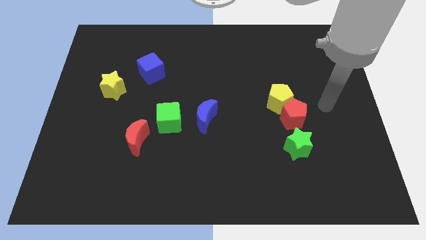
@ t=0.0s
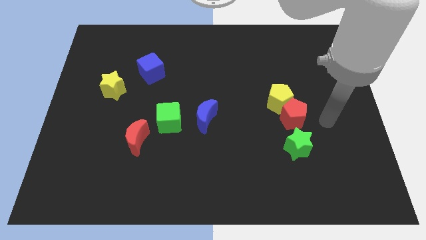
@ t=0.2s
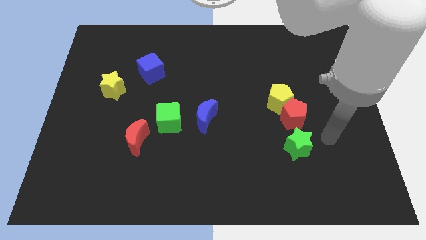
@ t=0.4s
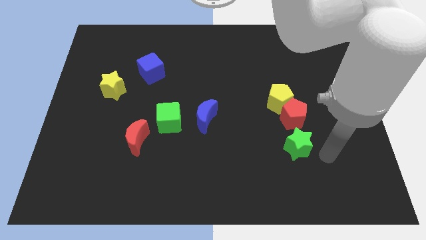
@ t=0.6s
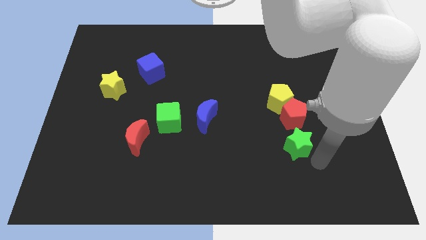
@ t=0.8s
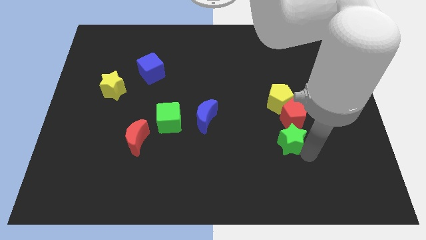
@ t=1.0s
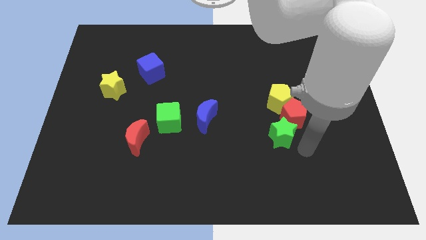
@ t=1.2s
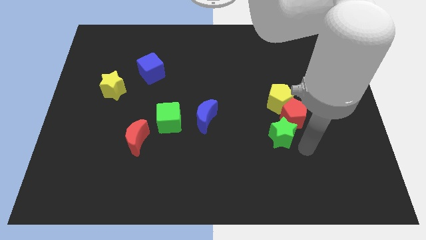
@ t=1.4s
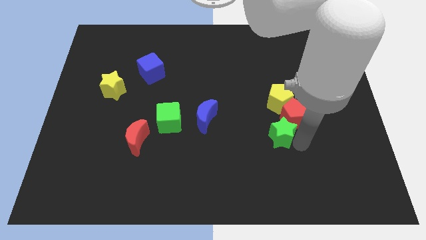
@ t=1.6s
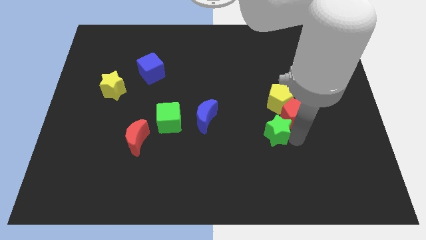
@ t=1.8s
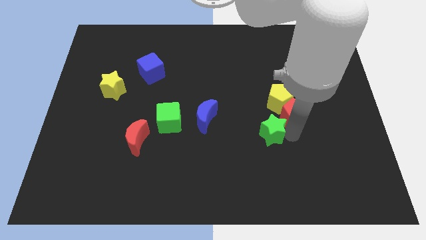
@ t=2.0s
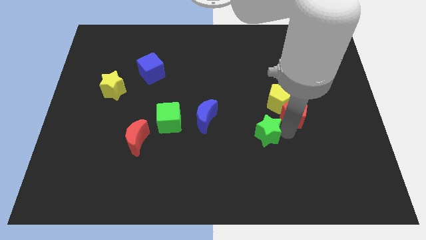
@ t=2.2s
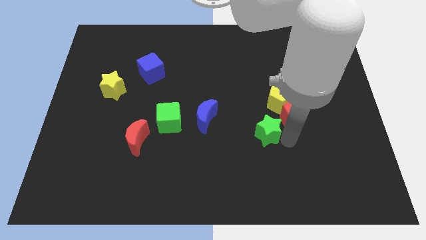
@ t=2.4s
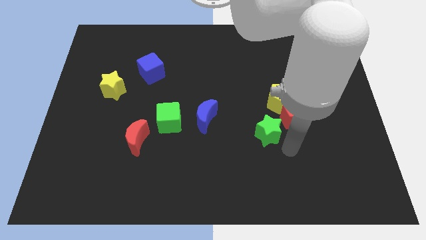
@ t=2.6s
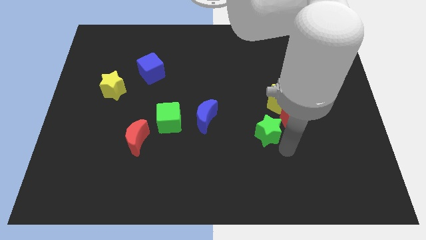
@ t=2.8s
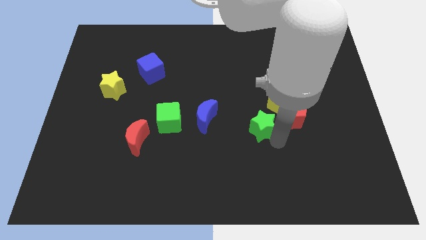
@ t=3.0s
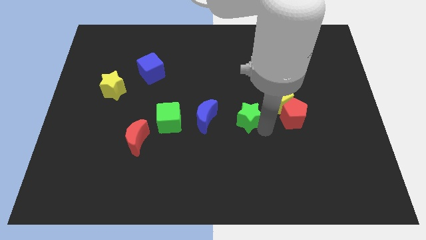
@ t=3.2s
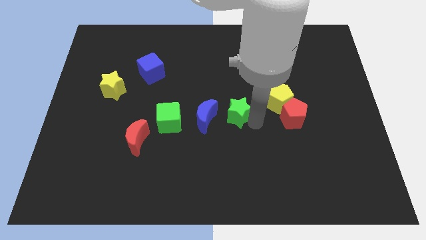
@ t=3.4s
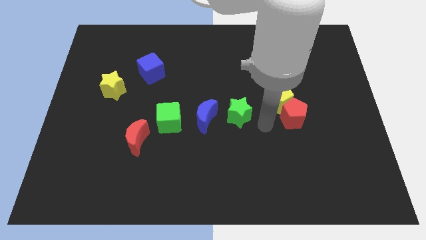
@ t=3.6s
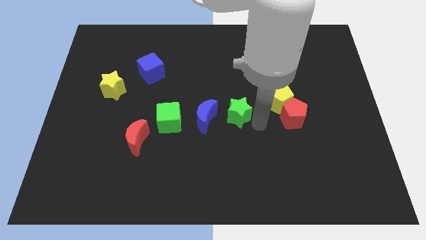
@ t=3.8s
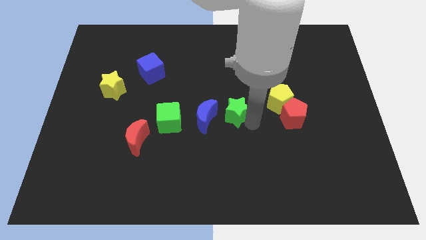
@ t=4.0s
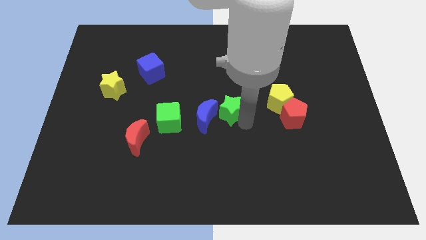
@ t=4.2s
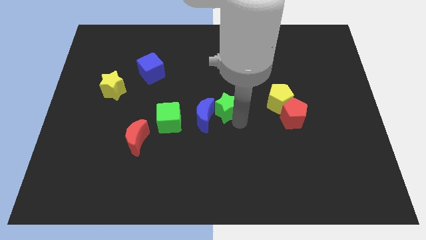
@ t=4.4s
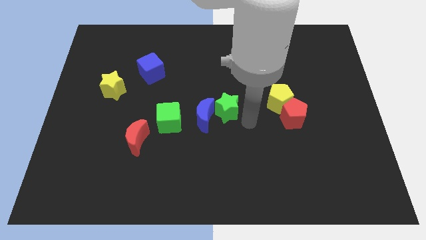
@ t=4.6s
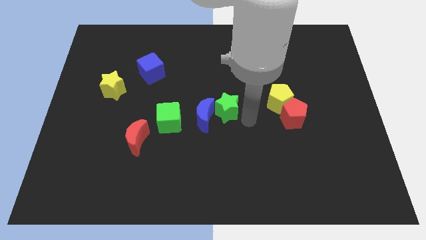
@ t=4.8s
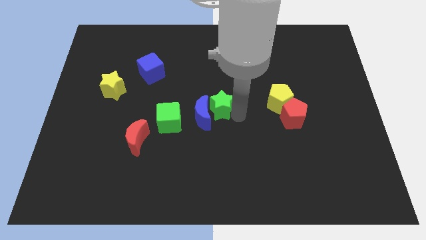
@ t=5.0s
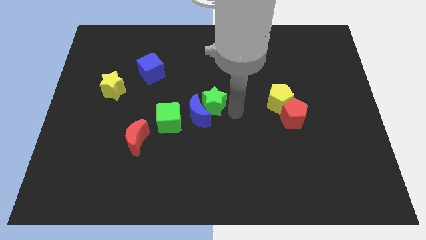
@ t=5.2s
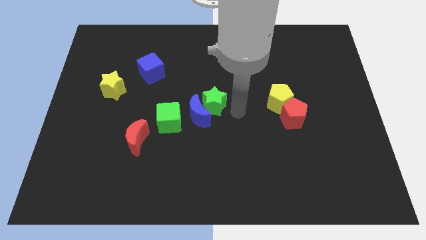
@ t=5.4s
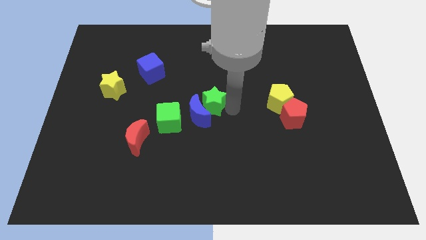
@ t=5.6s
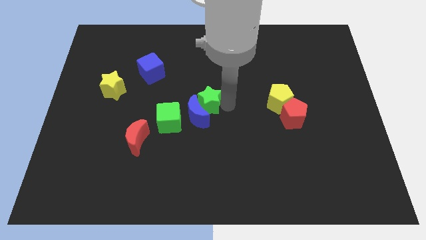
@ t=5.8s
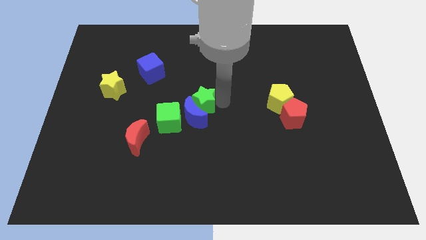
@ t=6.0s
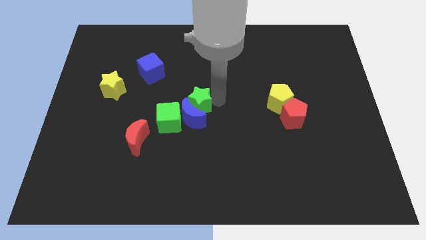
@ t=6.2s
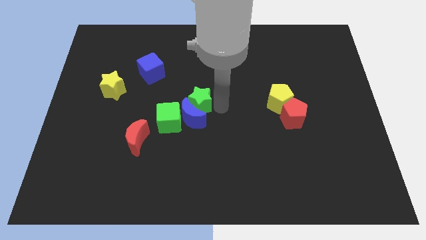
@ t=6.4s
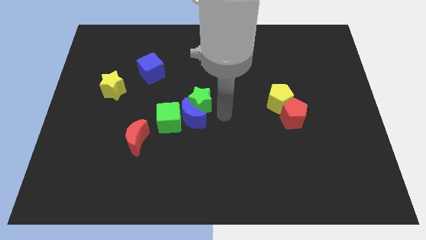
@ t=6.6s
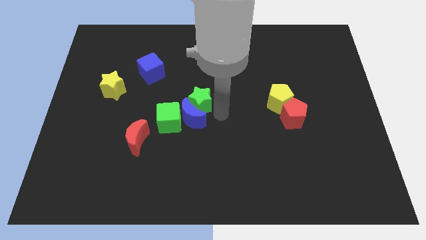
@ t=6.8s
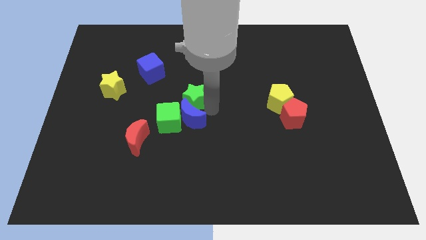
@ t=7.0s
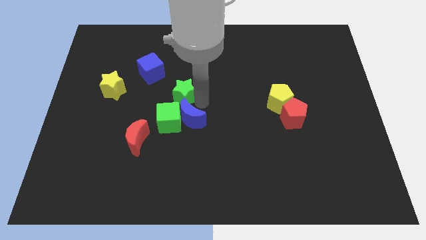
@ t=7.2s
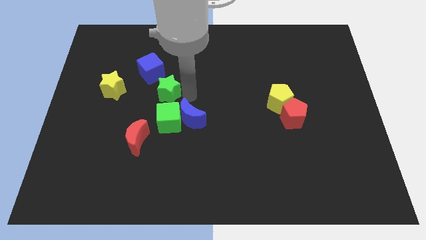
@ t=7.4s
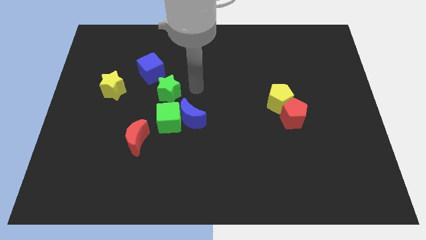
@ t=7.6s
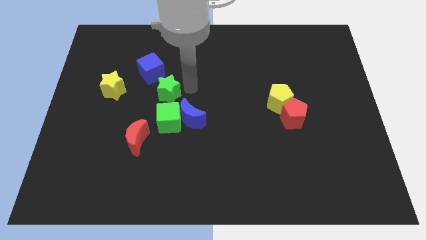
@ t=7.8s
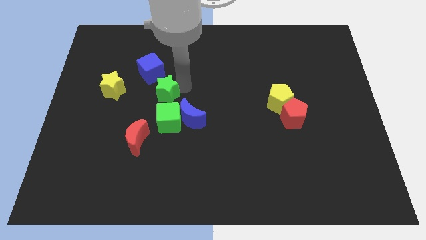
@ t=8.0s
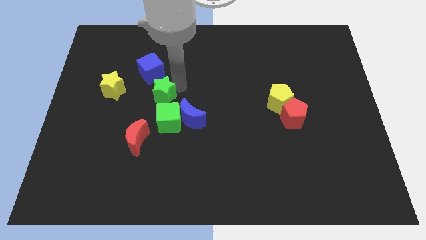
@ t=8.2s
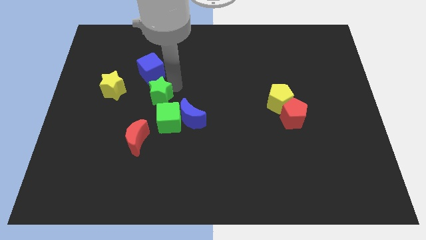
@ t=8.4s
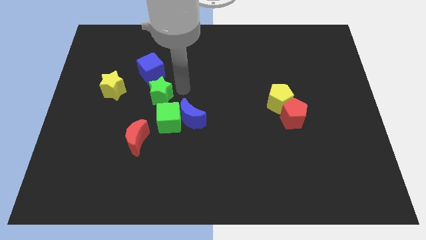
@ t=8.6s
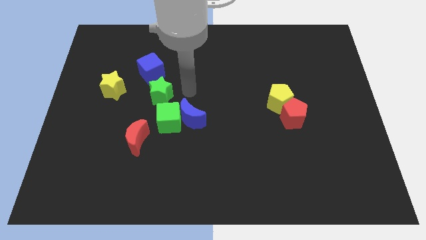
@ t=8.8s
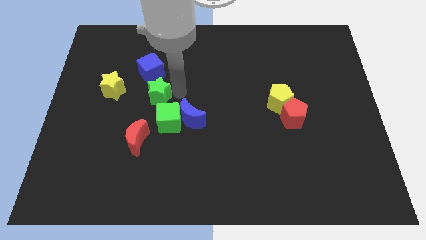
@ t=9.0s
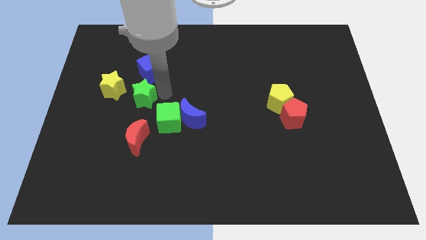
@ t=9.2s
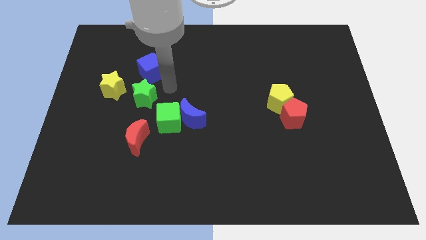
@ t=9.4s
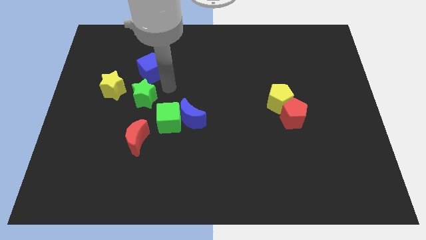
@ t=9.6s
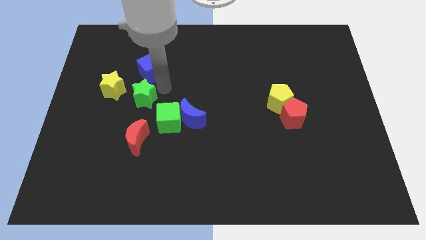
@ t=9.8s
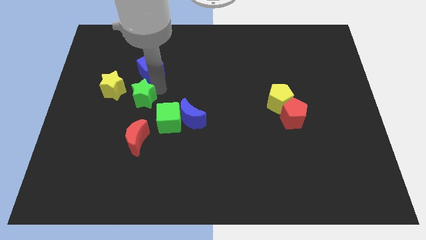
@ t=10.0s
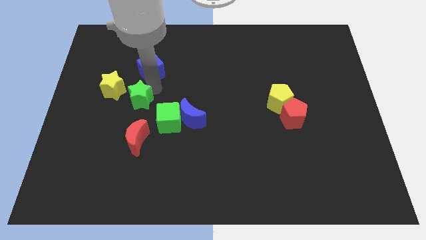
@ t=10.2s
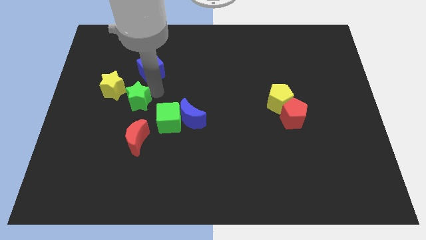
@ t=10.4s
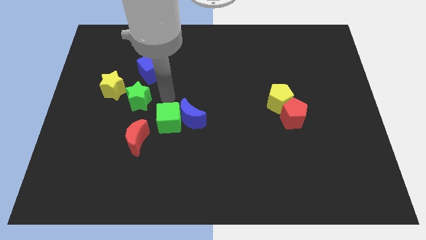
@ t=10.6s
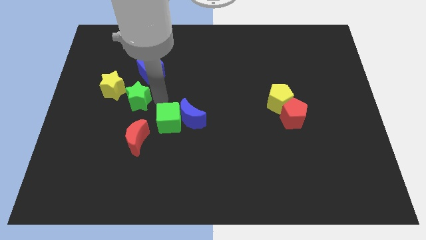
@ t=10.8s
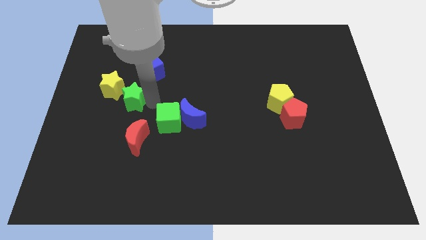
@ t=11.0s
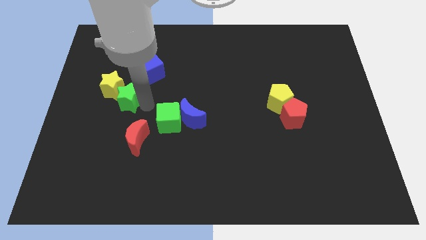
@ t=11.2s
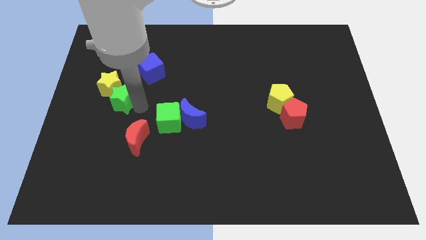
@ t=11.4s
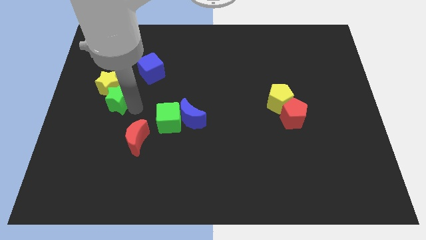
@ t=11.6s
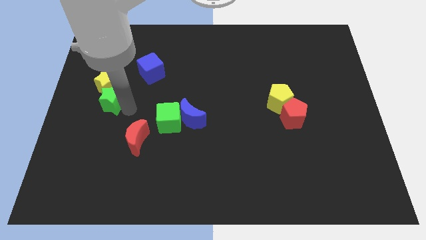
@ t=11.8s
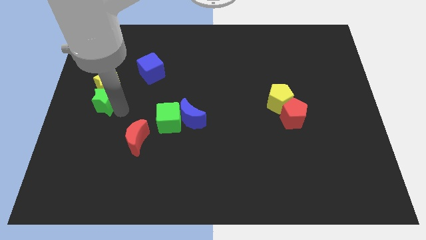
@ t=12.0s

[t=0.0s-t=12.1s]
push the green star to the left side
